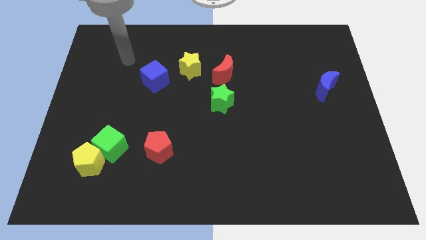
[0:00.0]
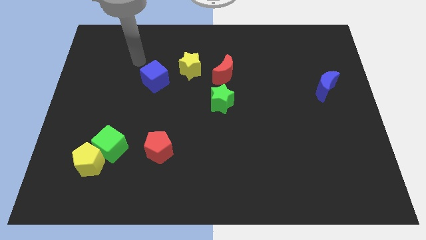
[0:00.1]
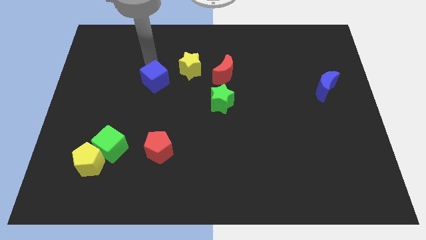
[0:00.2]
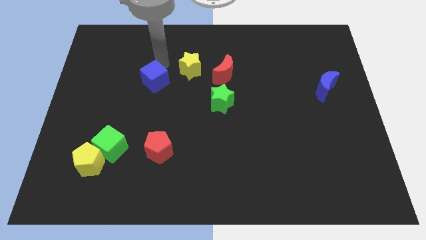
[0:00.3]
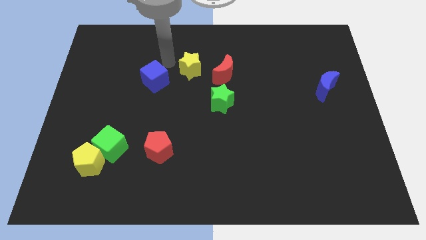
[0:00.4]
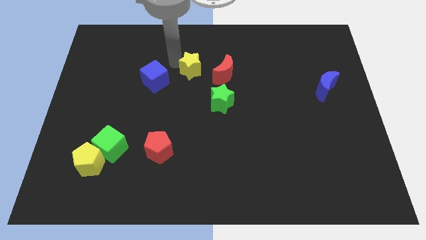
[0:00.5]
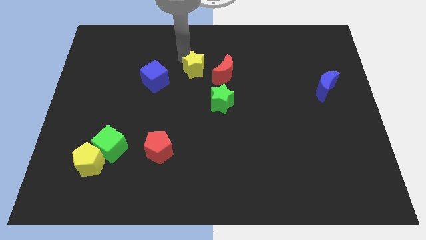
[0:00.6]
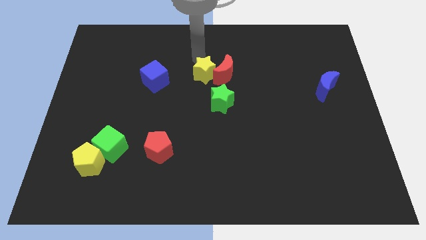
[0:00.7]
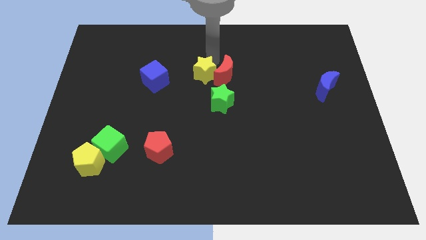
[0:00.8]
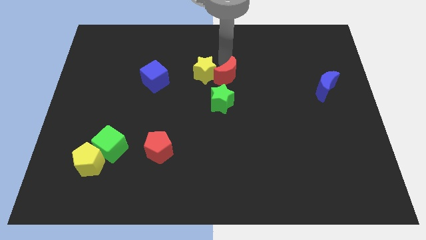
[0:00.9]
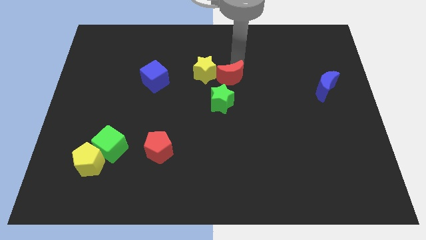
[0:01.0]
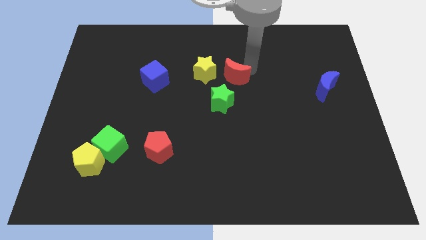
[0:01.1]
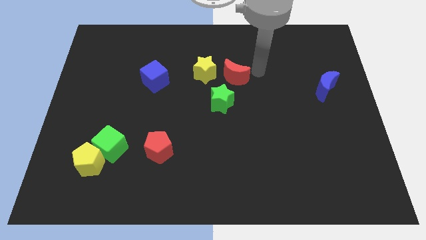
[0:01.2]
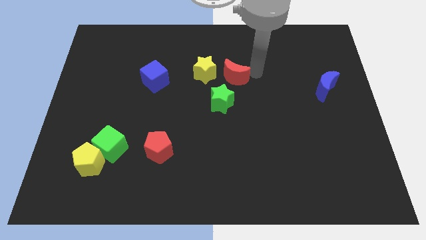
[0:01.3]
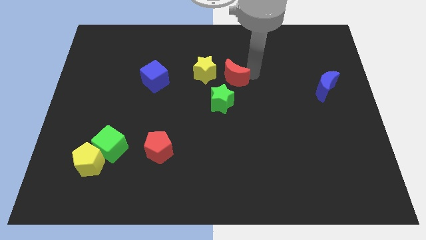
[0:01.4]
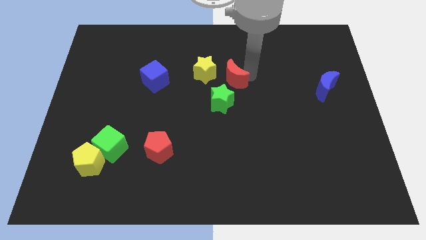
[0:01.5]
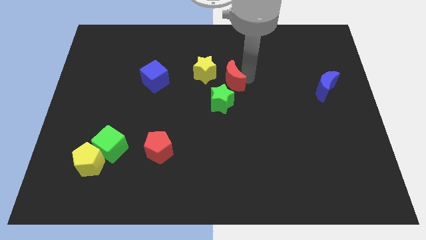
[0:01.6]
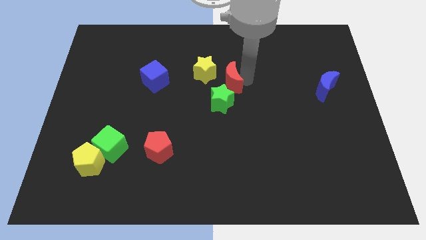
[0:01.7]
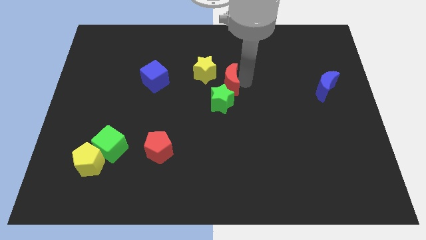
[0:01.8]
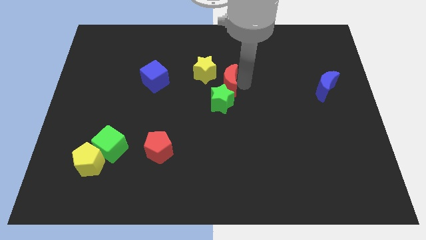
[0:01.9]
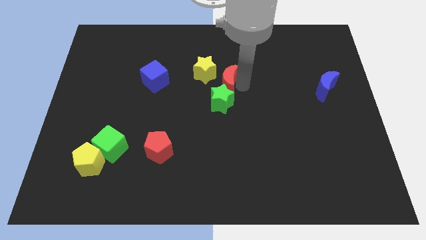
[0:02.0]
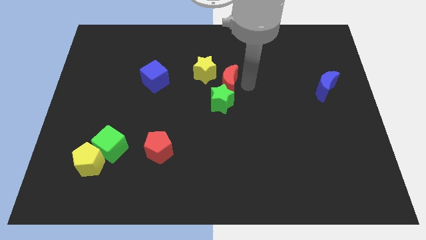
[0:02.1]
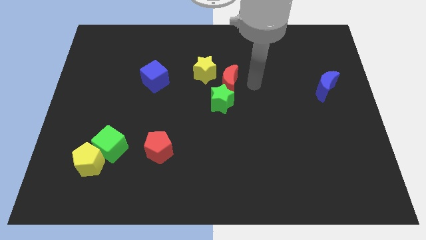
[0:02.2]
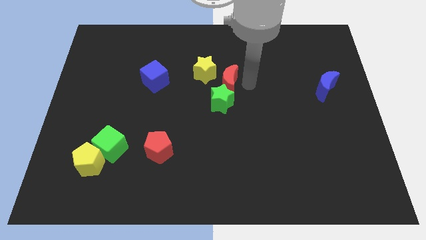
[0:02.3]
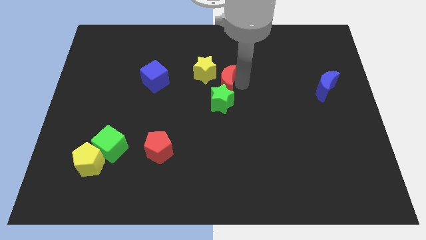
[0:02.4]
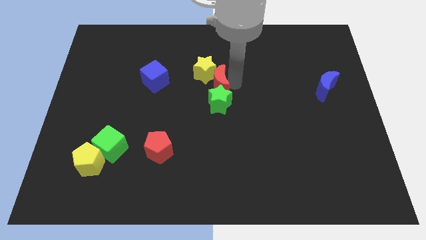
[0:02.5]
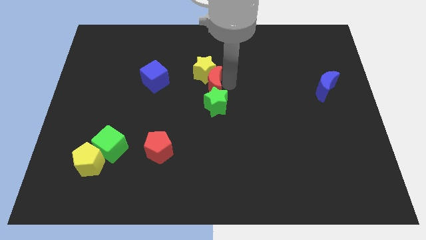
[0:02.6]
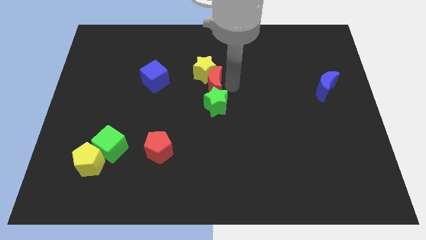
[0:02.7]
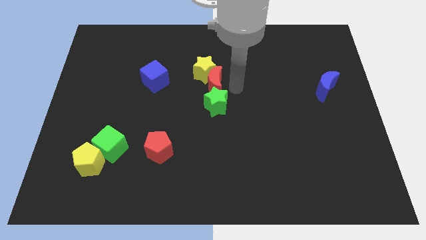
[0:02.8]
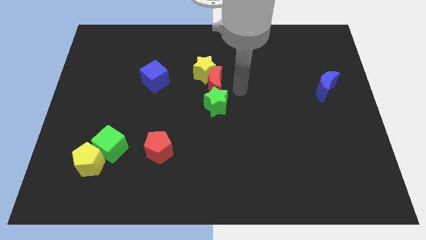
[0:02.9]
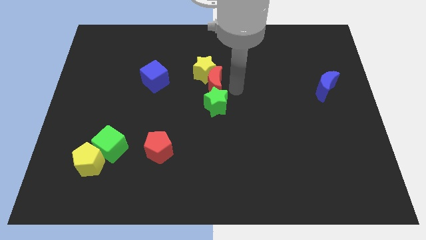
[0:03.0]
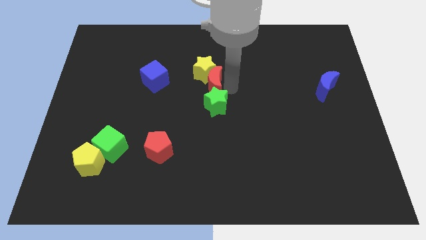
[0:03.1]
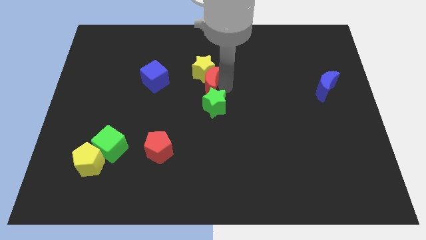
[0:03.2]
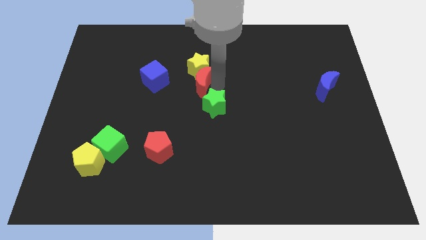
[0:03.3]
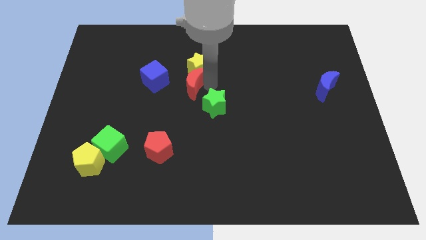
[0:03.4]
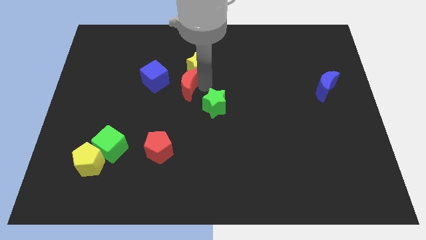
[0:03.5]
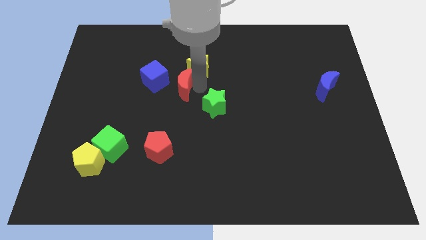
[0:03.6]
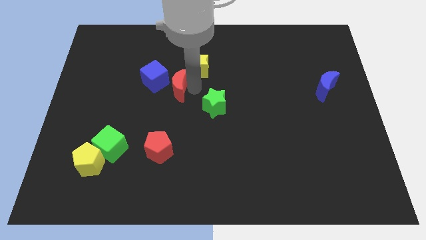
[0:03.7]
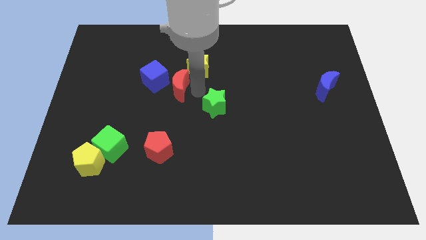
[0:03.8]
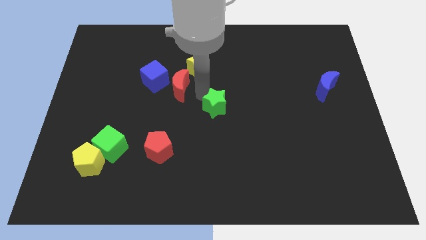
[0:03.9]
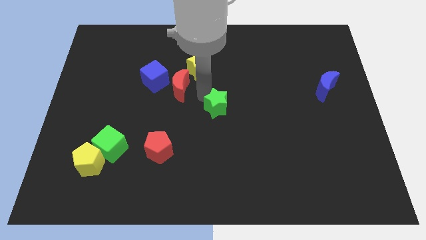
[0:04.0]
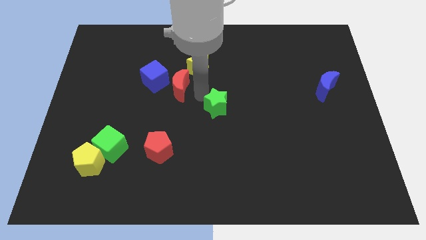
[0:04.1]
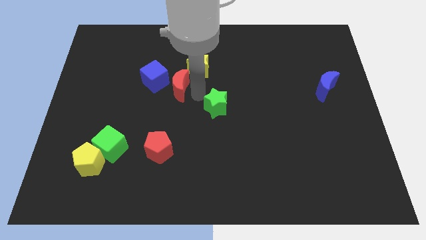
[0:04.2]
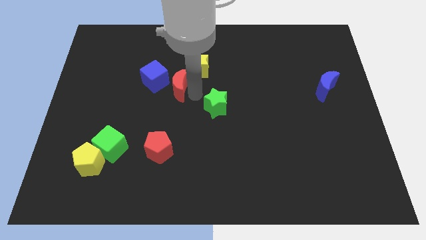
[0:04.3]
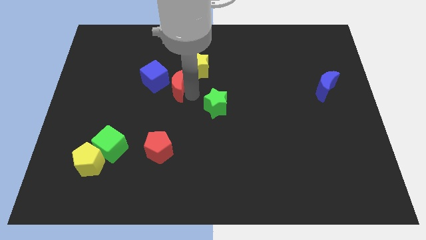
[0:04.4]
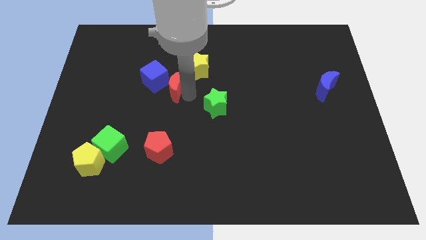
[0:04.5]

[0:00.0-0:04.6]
push the red moon towards the blue cube

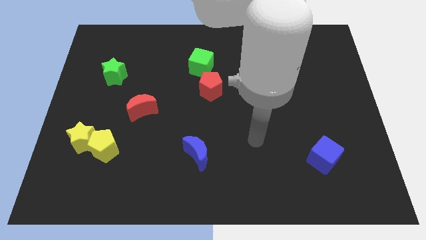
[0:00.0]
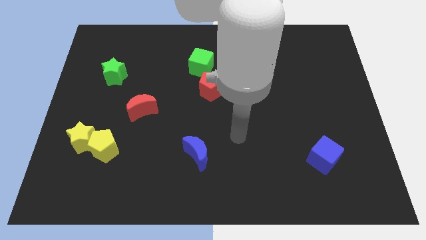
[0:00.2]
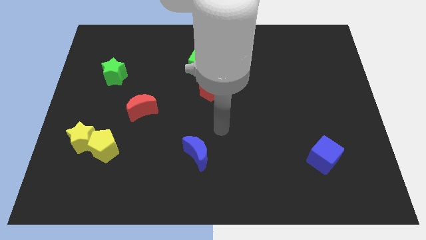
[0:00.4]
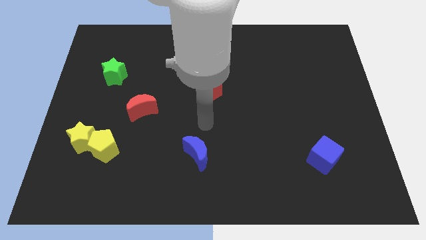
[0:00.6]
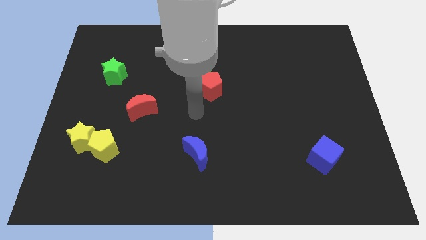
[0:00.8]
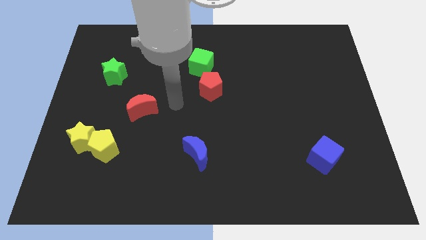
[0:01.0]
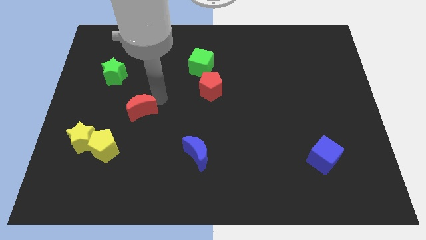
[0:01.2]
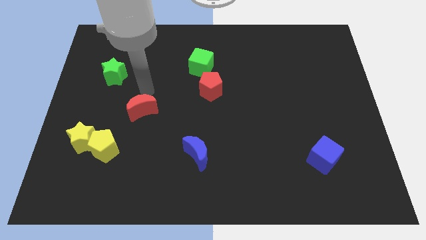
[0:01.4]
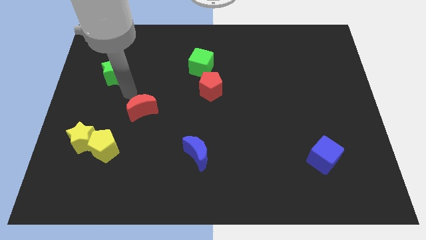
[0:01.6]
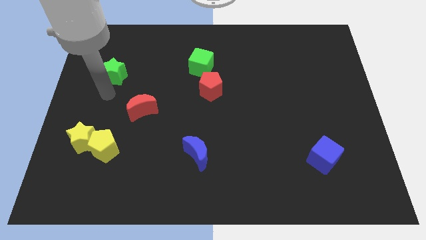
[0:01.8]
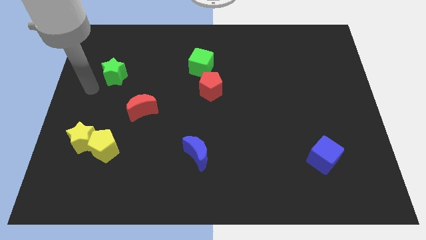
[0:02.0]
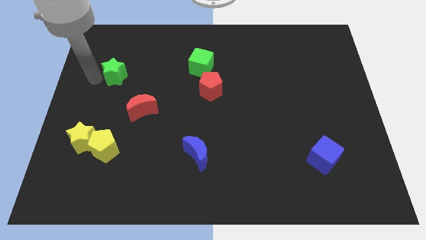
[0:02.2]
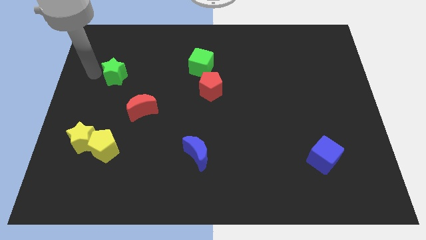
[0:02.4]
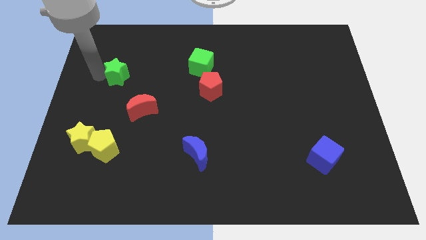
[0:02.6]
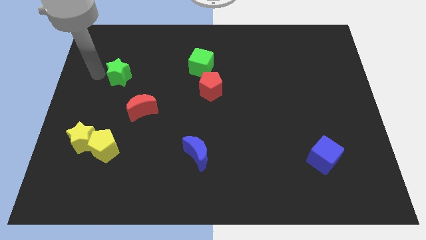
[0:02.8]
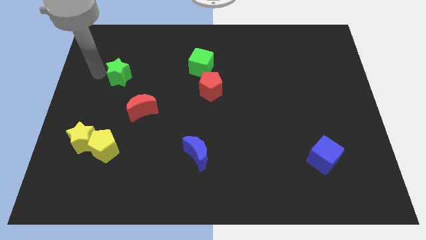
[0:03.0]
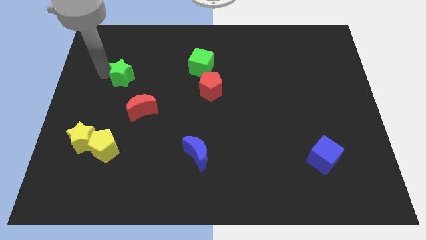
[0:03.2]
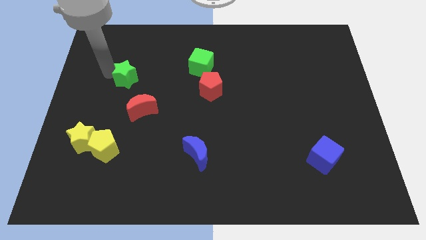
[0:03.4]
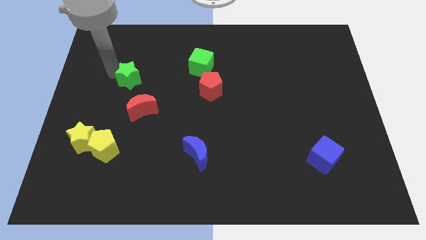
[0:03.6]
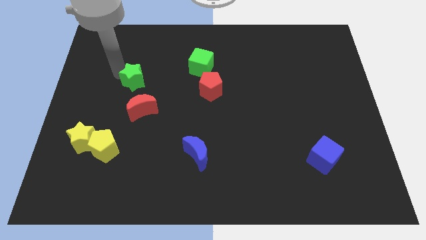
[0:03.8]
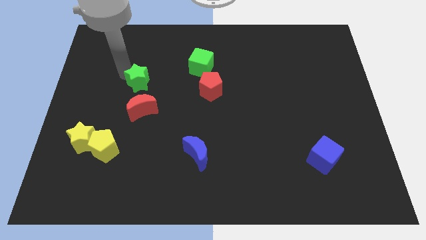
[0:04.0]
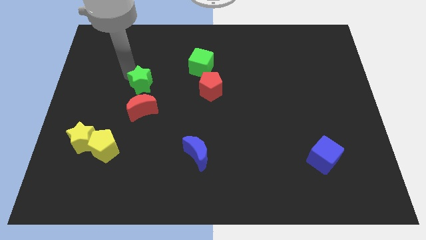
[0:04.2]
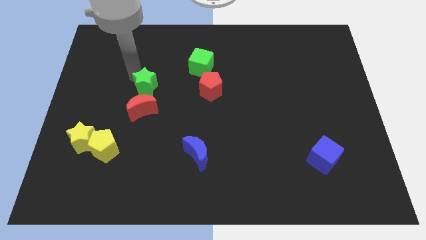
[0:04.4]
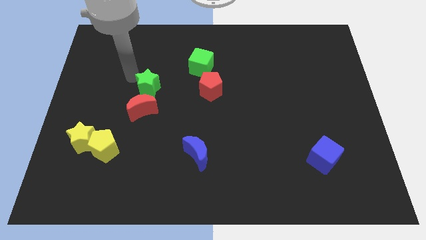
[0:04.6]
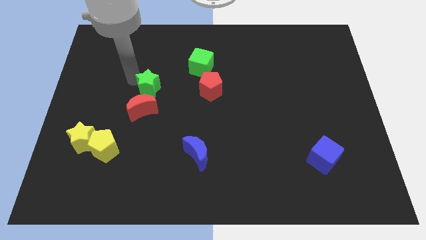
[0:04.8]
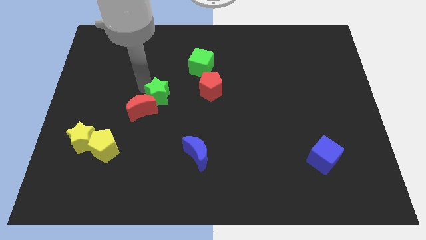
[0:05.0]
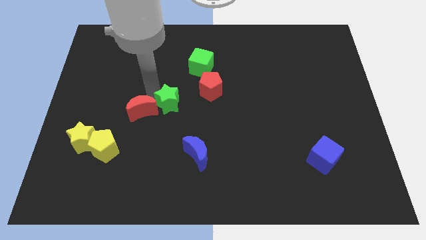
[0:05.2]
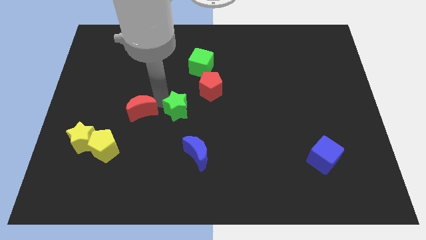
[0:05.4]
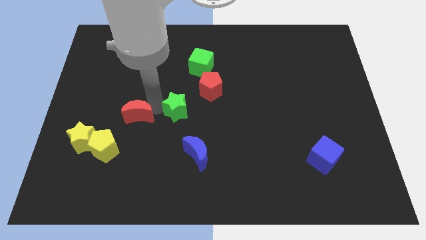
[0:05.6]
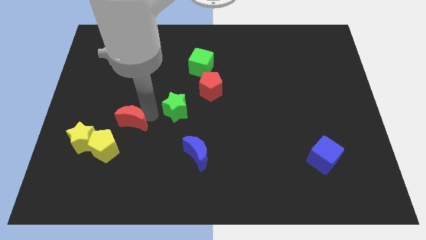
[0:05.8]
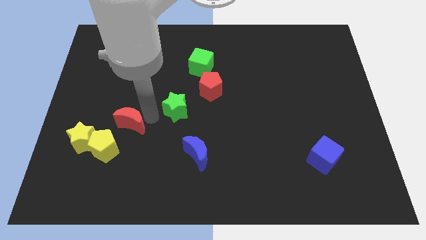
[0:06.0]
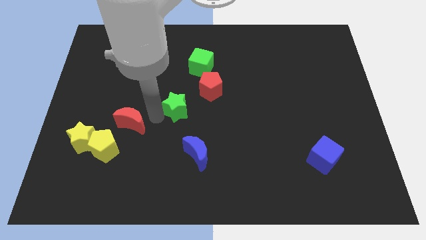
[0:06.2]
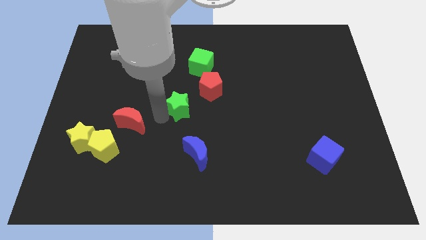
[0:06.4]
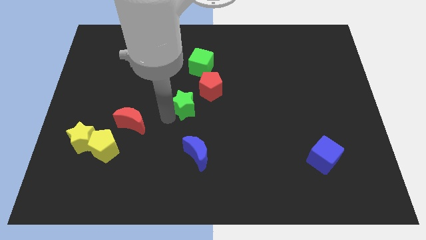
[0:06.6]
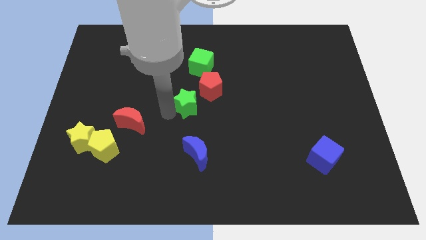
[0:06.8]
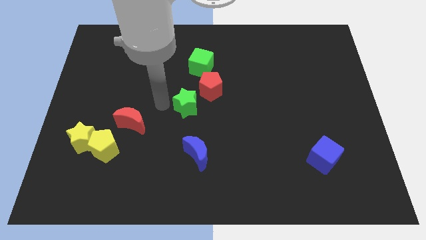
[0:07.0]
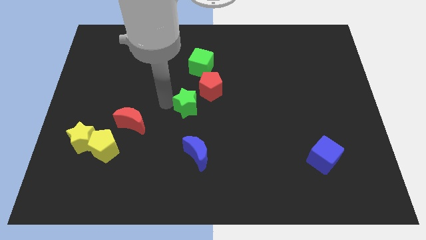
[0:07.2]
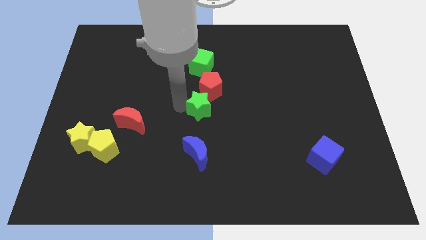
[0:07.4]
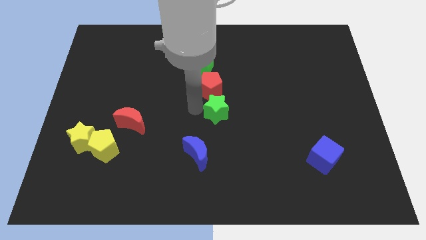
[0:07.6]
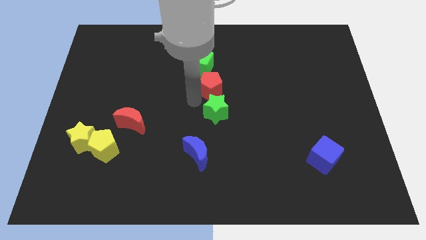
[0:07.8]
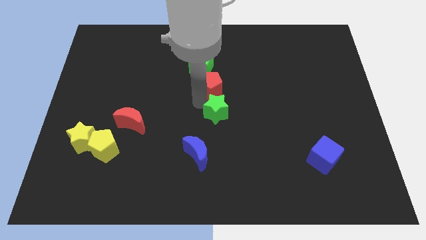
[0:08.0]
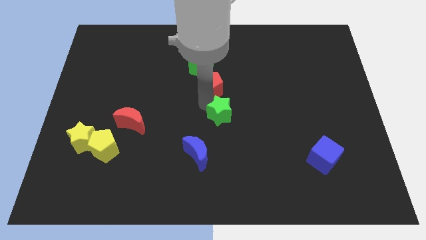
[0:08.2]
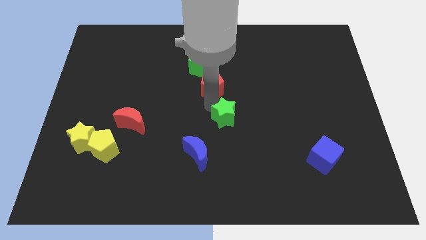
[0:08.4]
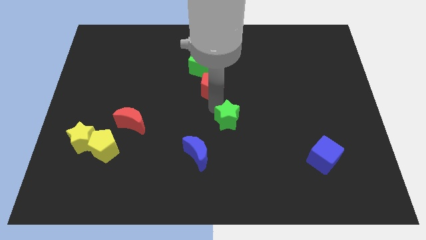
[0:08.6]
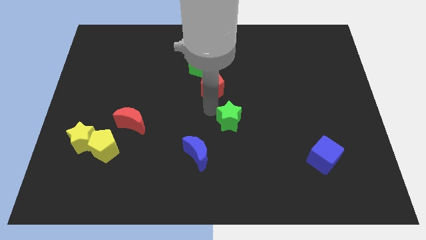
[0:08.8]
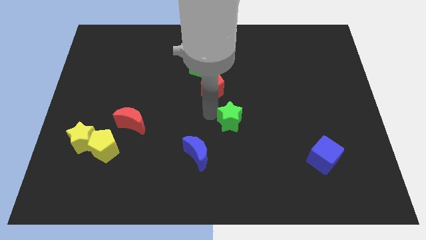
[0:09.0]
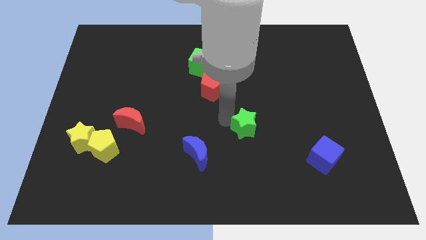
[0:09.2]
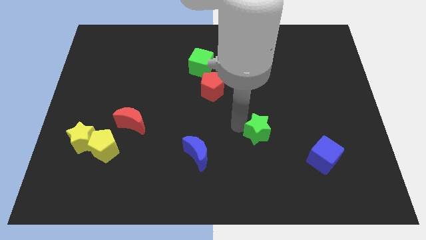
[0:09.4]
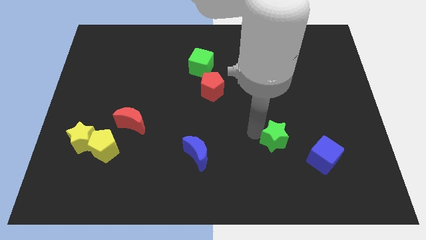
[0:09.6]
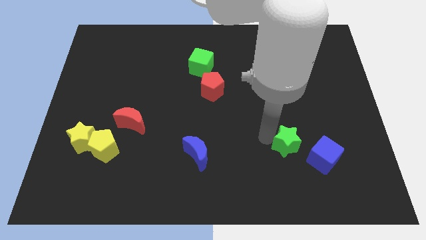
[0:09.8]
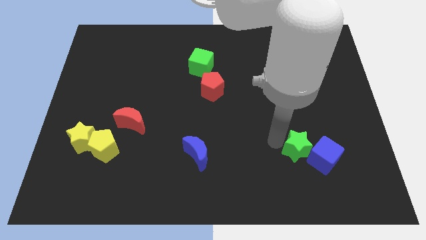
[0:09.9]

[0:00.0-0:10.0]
put the green star to the blue cube
